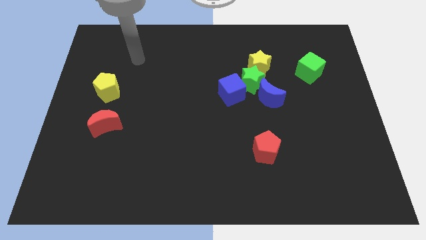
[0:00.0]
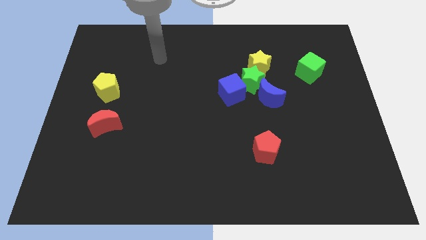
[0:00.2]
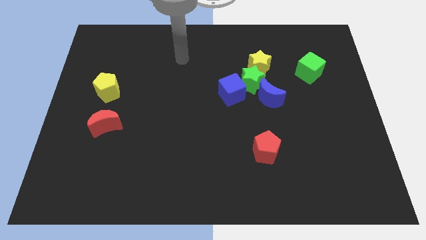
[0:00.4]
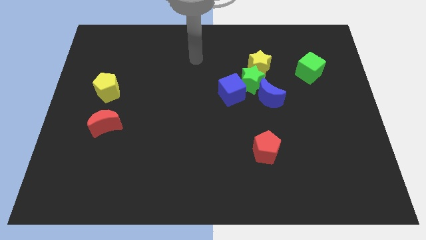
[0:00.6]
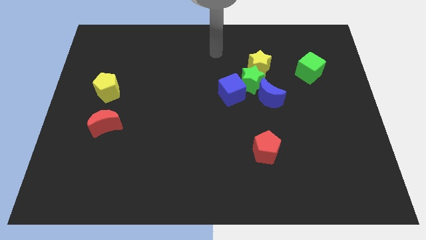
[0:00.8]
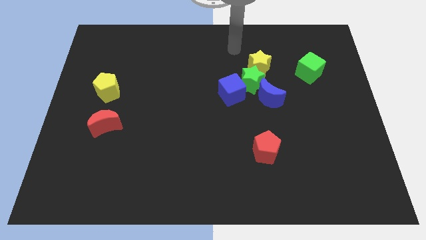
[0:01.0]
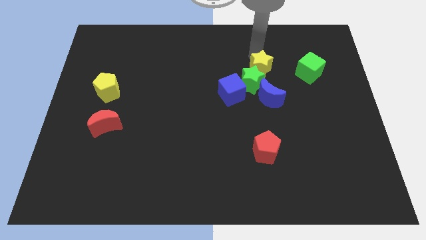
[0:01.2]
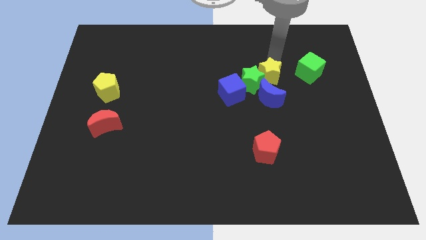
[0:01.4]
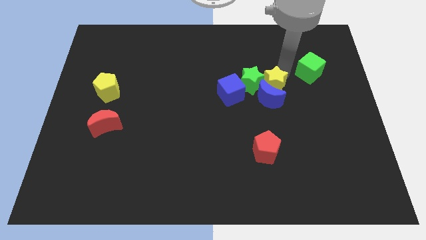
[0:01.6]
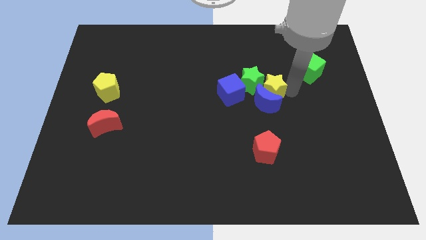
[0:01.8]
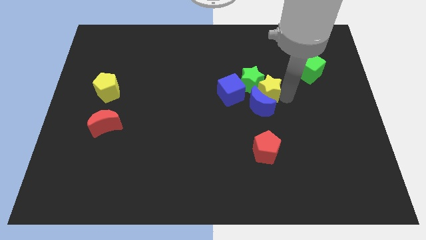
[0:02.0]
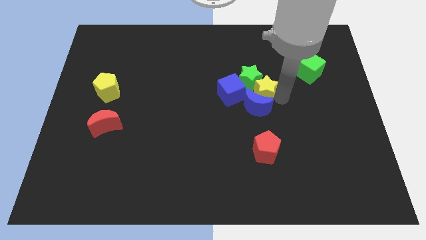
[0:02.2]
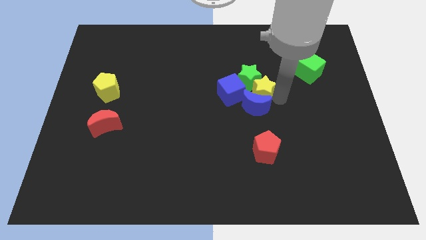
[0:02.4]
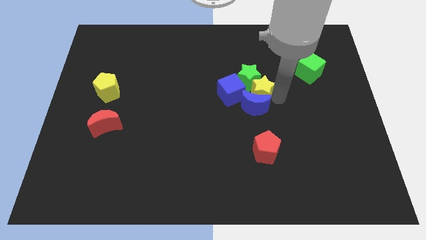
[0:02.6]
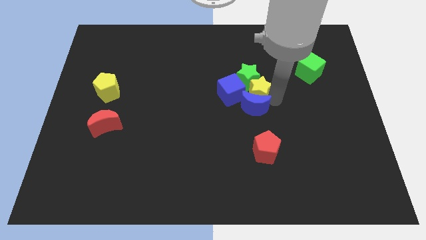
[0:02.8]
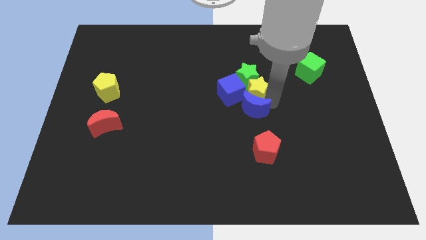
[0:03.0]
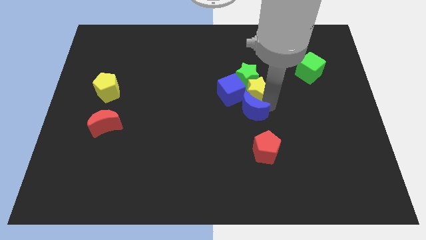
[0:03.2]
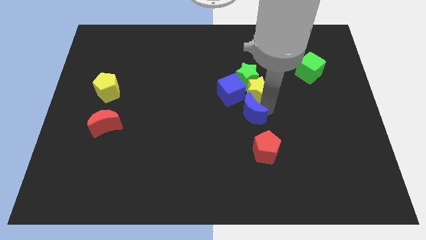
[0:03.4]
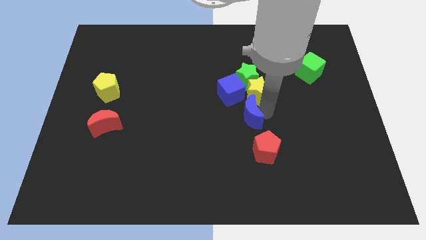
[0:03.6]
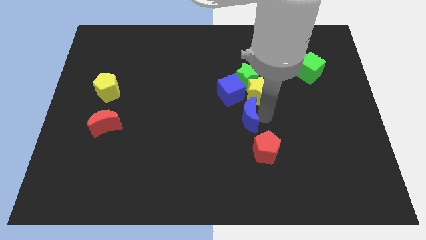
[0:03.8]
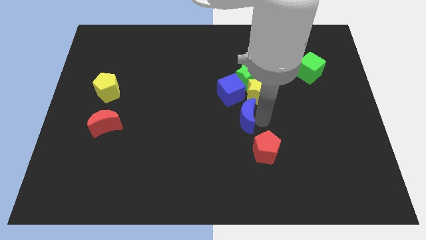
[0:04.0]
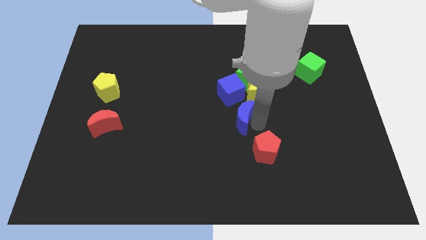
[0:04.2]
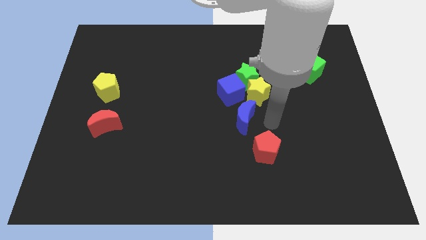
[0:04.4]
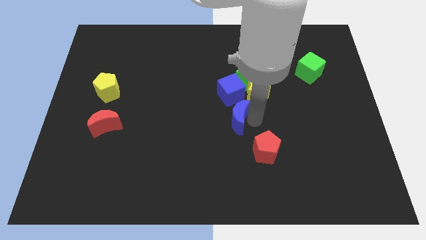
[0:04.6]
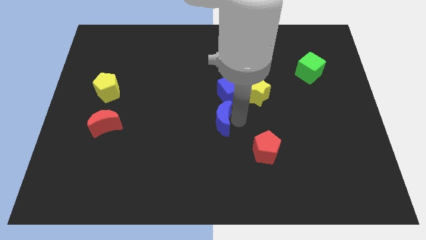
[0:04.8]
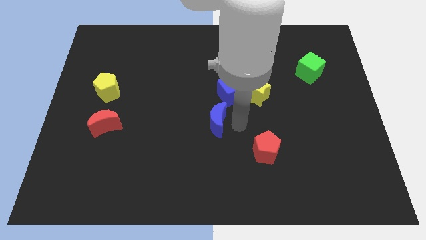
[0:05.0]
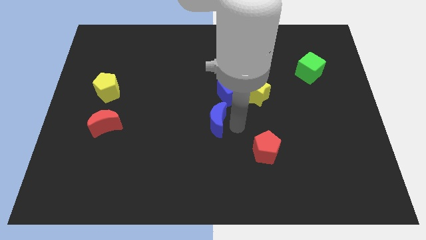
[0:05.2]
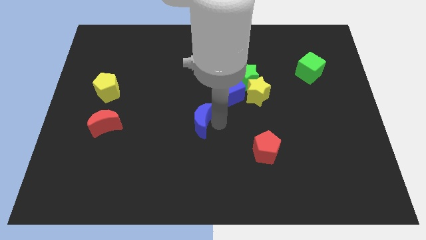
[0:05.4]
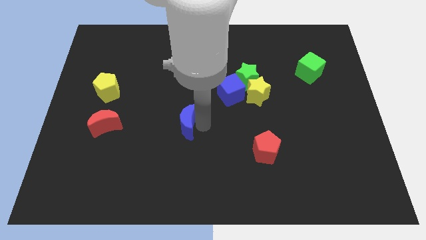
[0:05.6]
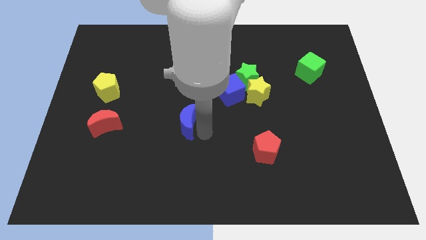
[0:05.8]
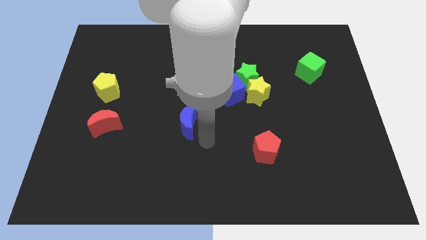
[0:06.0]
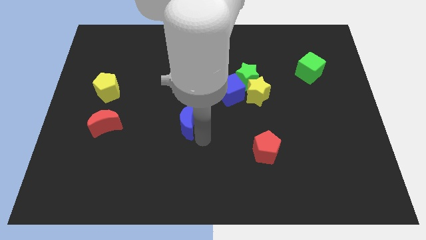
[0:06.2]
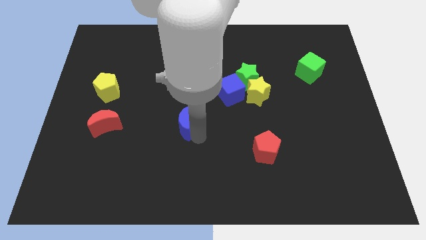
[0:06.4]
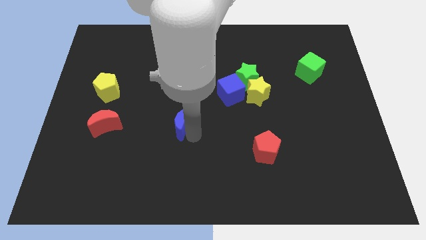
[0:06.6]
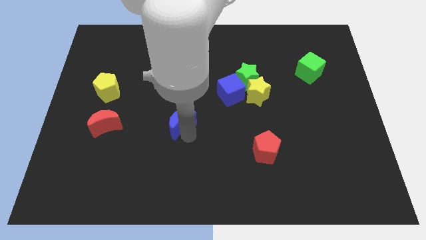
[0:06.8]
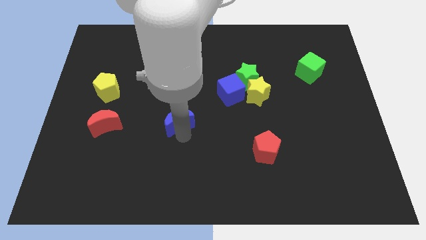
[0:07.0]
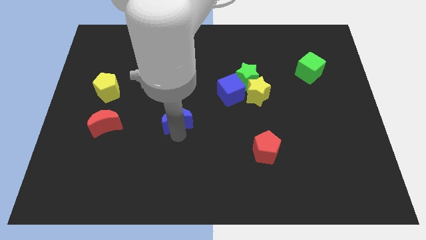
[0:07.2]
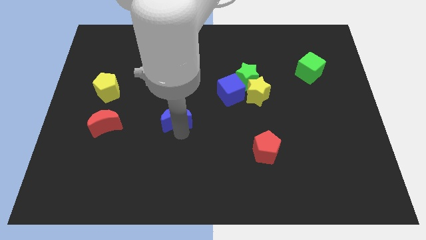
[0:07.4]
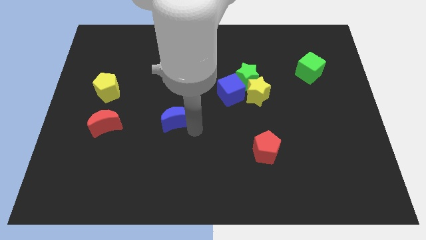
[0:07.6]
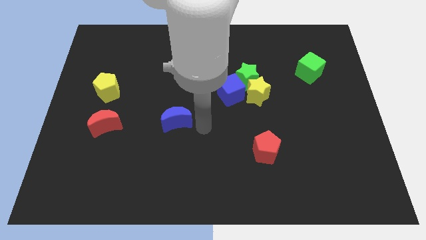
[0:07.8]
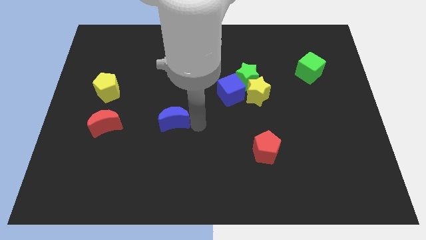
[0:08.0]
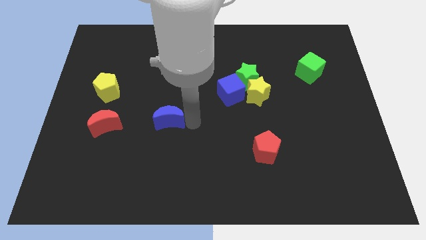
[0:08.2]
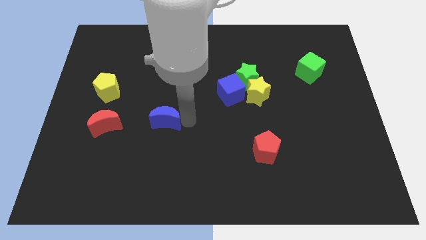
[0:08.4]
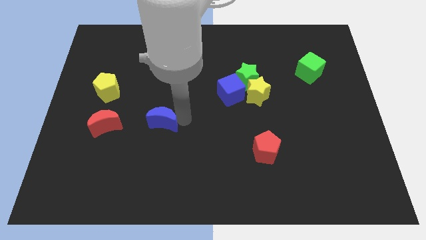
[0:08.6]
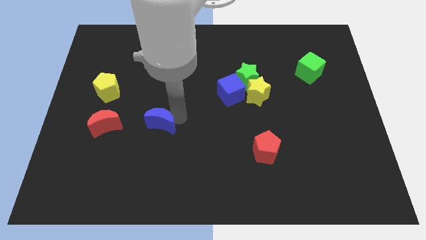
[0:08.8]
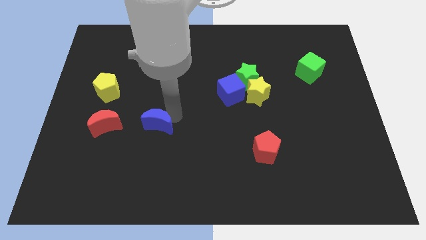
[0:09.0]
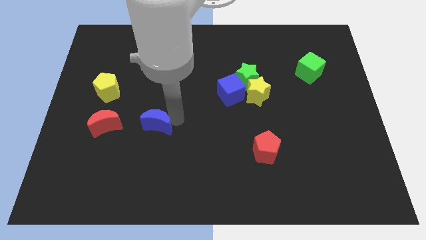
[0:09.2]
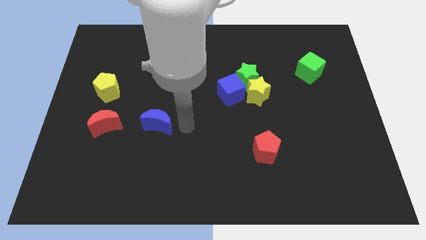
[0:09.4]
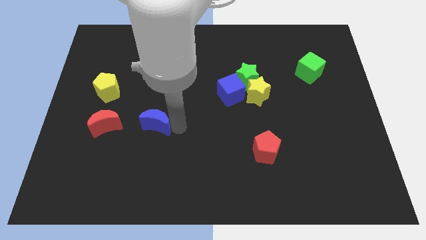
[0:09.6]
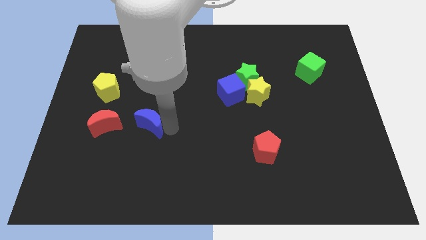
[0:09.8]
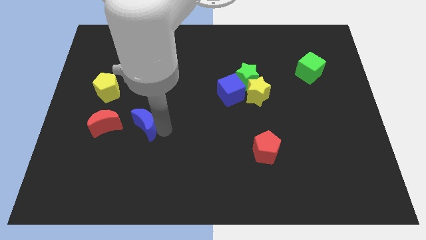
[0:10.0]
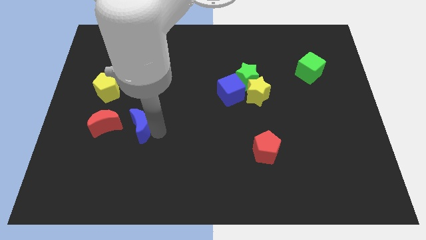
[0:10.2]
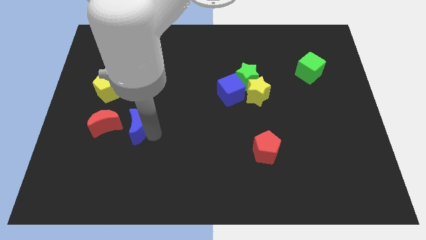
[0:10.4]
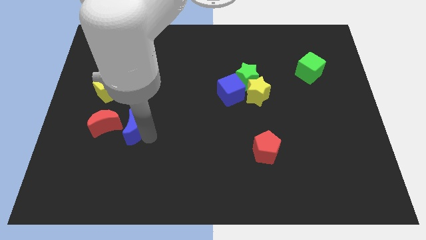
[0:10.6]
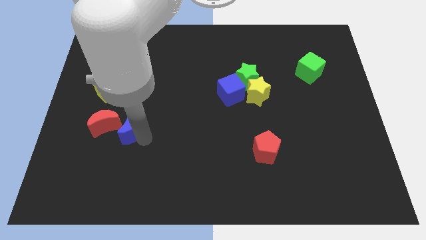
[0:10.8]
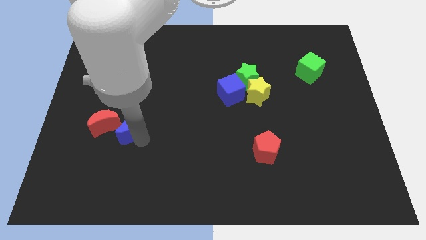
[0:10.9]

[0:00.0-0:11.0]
put the blue moon towards the red moon

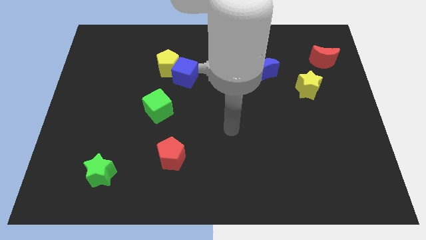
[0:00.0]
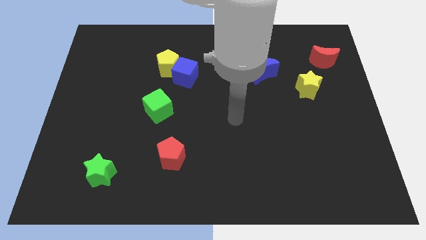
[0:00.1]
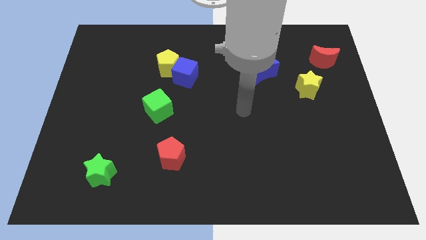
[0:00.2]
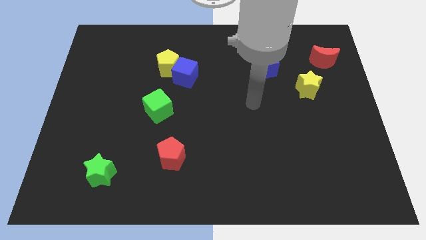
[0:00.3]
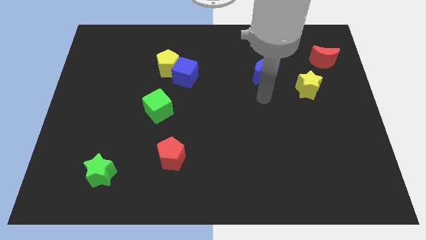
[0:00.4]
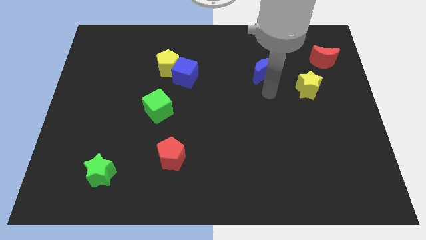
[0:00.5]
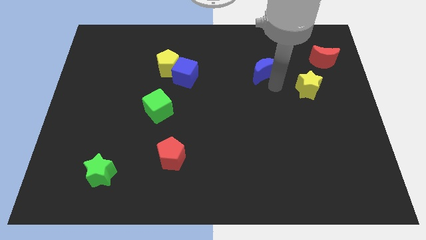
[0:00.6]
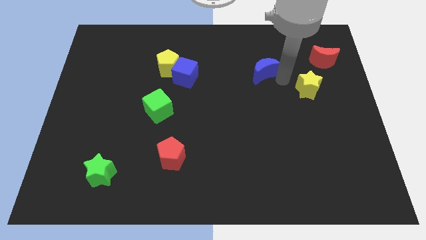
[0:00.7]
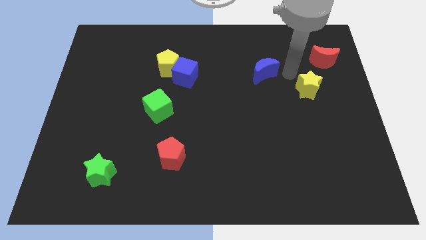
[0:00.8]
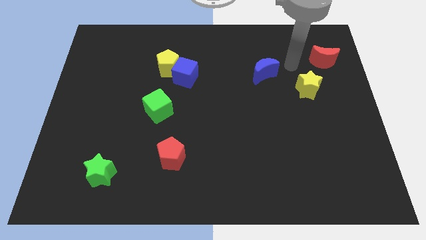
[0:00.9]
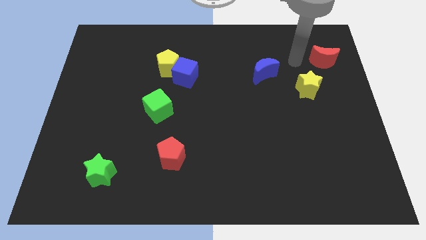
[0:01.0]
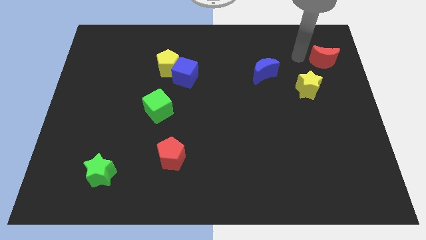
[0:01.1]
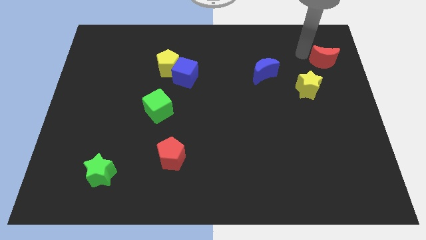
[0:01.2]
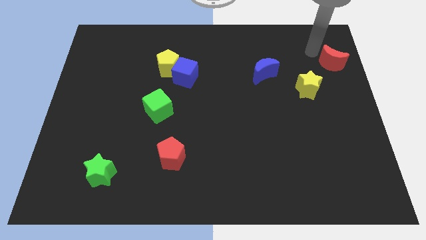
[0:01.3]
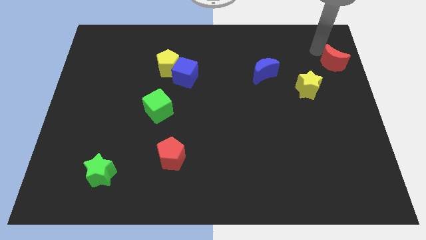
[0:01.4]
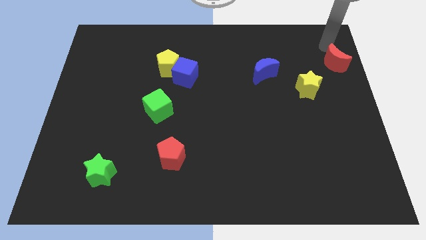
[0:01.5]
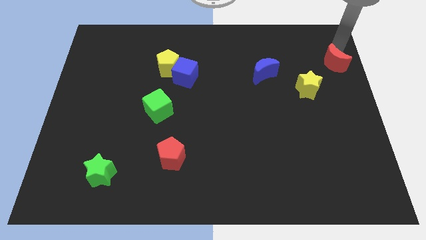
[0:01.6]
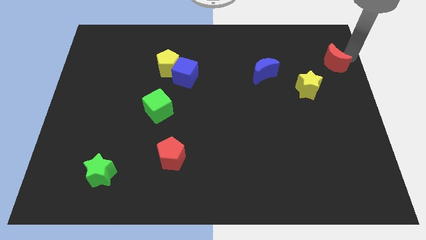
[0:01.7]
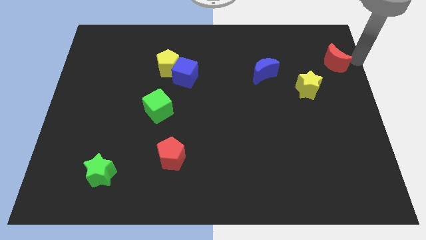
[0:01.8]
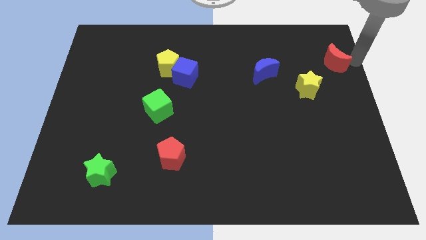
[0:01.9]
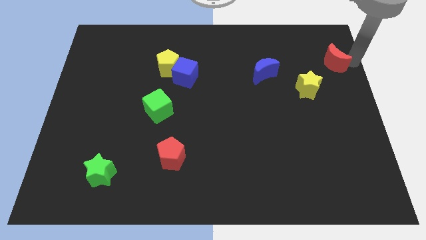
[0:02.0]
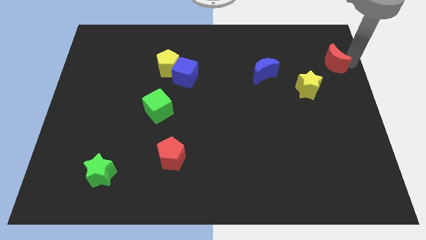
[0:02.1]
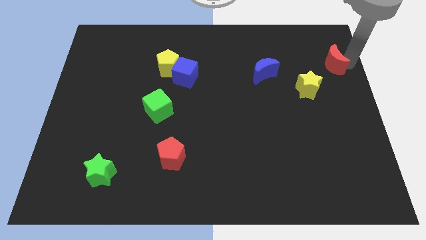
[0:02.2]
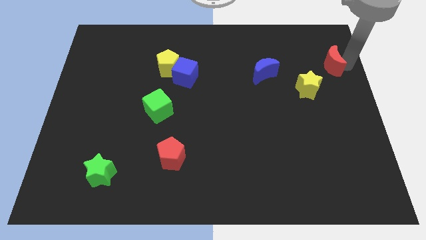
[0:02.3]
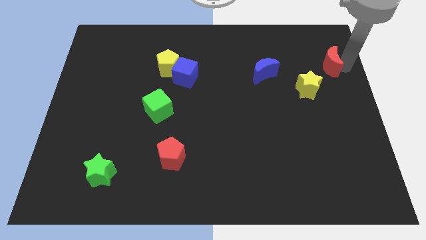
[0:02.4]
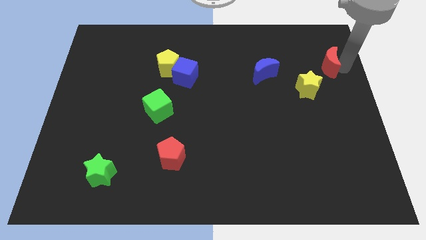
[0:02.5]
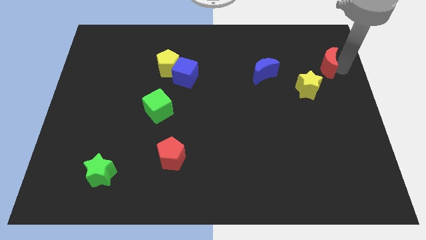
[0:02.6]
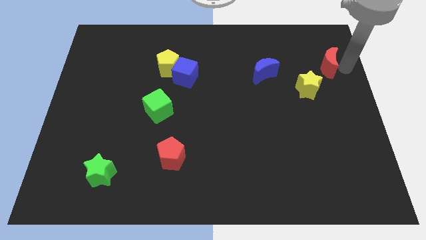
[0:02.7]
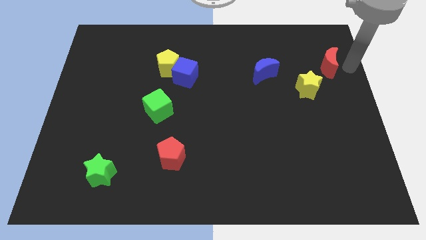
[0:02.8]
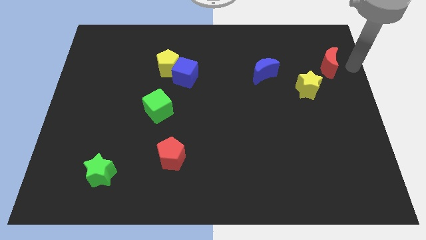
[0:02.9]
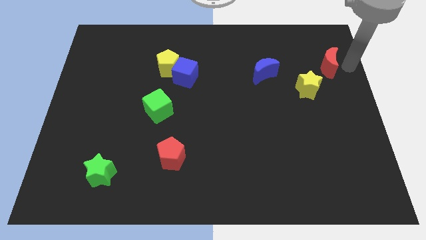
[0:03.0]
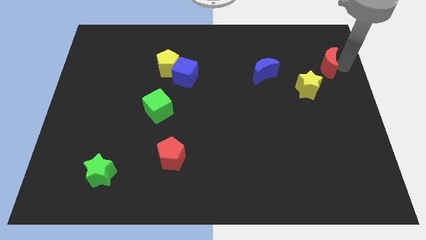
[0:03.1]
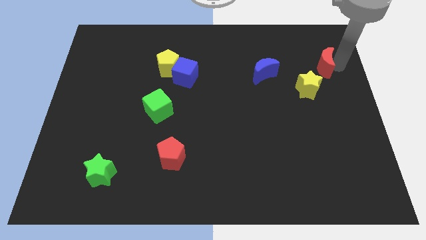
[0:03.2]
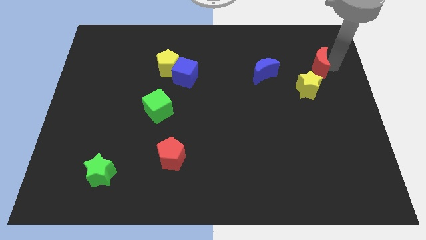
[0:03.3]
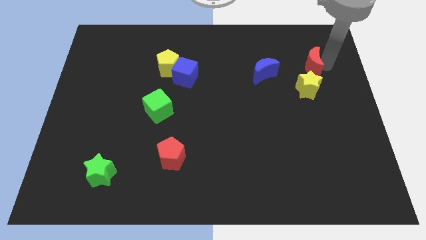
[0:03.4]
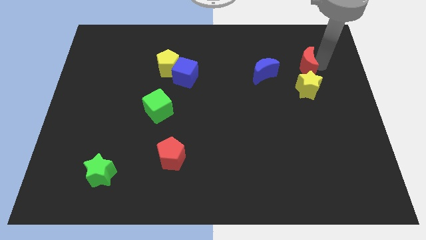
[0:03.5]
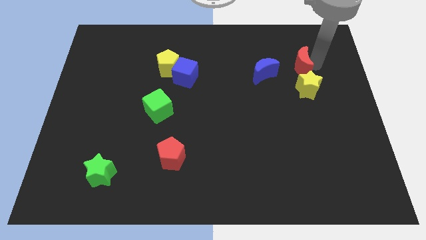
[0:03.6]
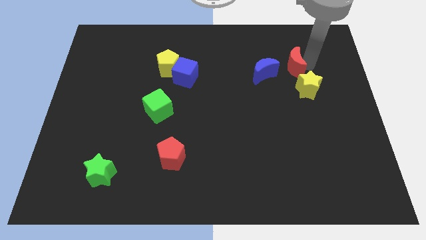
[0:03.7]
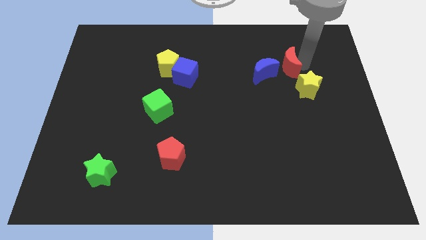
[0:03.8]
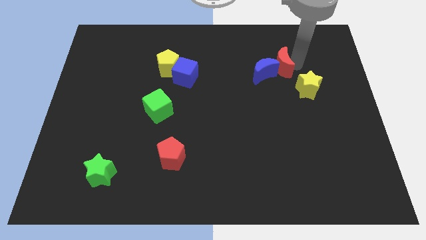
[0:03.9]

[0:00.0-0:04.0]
move the red moon to the blue moon
